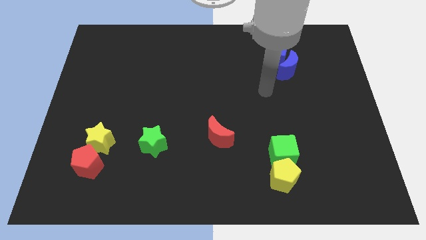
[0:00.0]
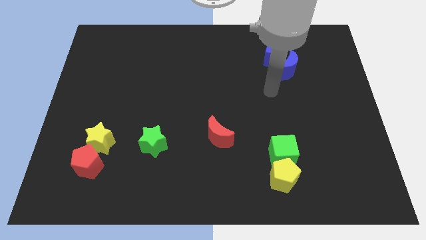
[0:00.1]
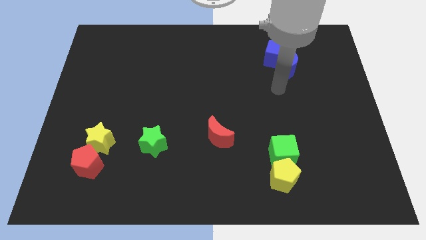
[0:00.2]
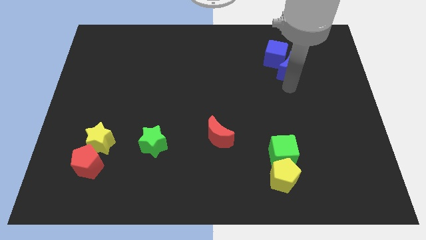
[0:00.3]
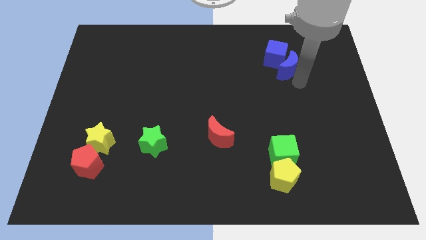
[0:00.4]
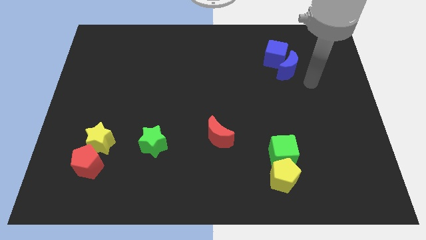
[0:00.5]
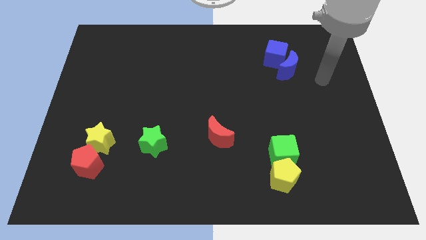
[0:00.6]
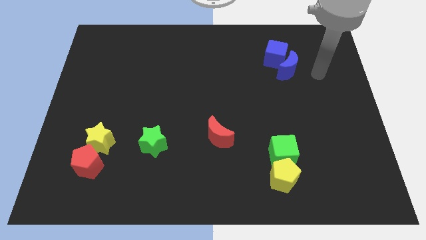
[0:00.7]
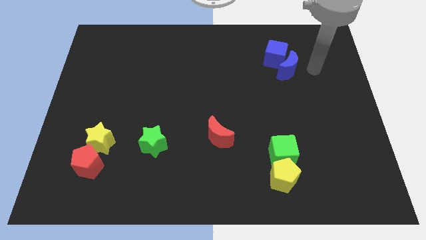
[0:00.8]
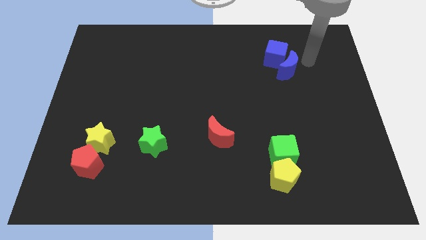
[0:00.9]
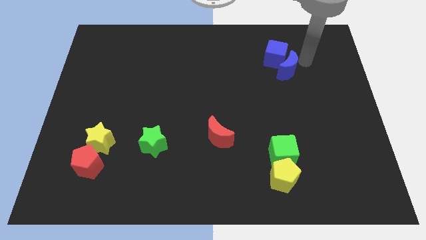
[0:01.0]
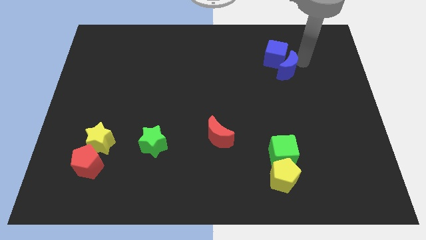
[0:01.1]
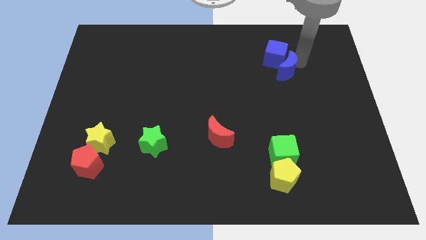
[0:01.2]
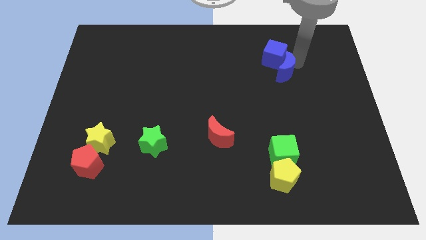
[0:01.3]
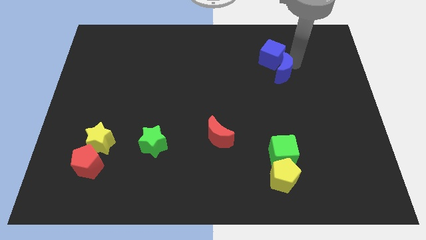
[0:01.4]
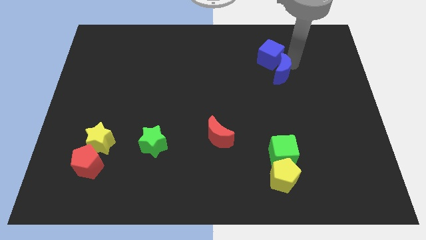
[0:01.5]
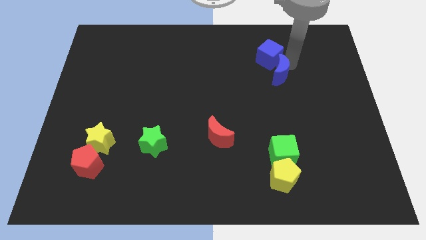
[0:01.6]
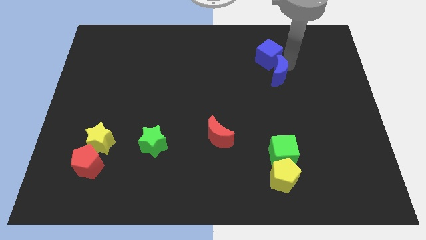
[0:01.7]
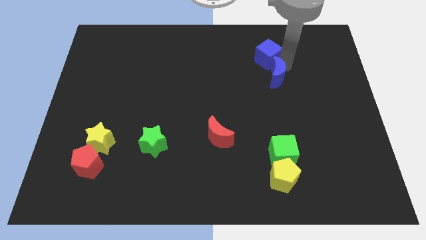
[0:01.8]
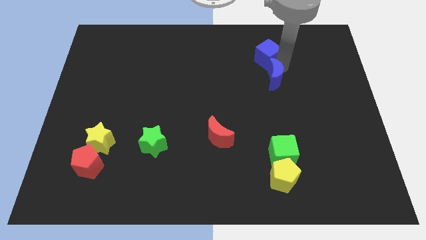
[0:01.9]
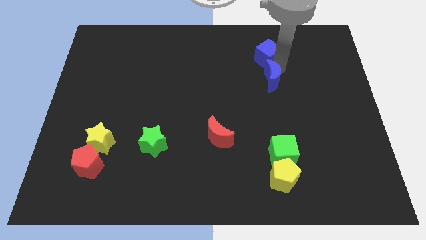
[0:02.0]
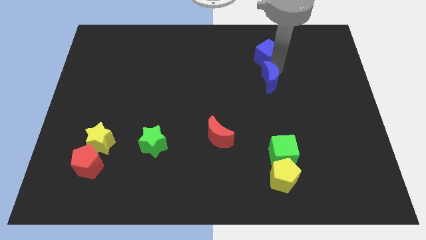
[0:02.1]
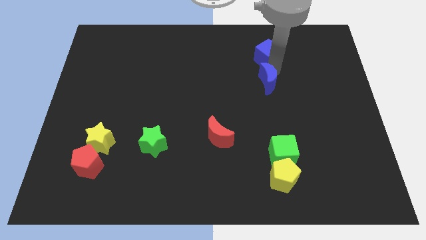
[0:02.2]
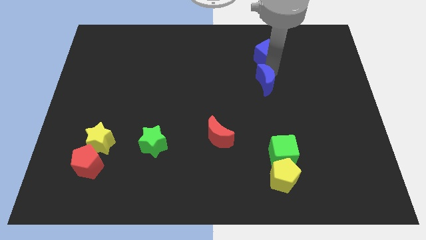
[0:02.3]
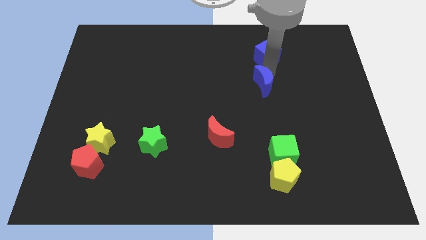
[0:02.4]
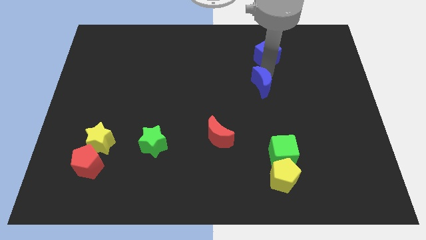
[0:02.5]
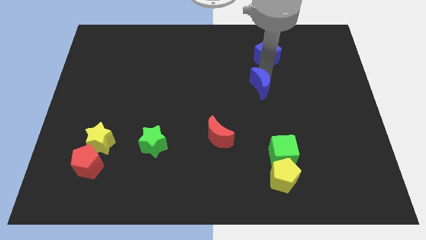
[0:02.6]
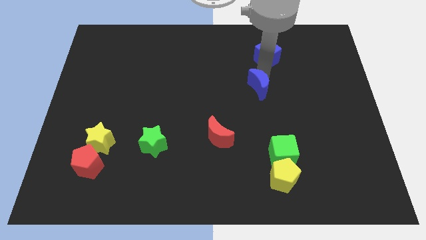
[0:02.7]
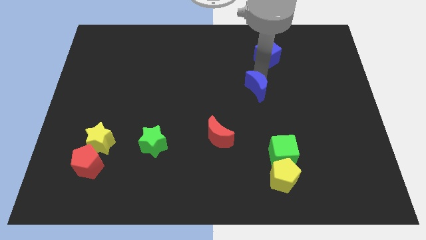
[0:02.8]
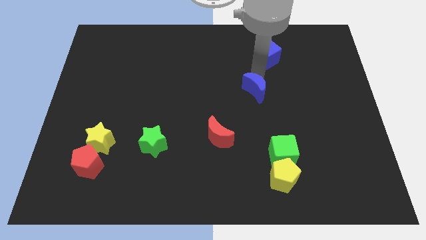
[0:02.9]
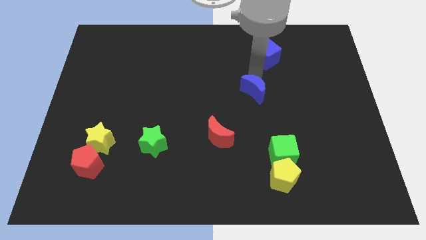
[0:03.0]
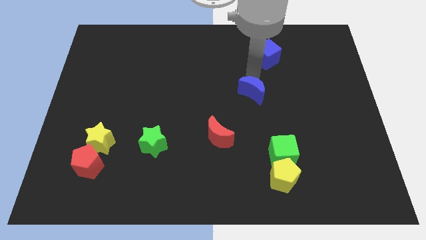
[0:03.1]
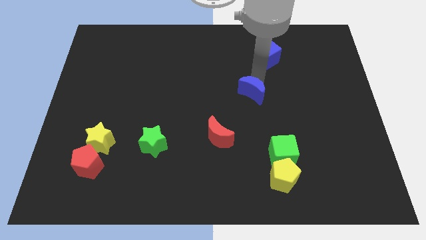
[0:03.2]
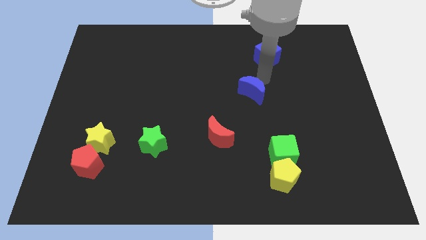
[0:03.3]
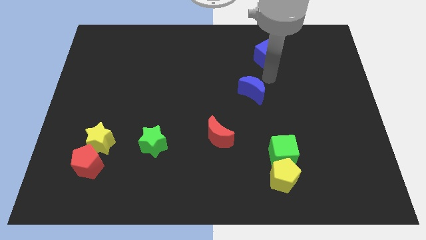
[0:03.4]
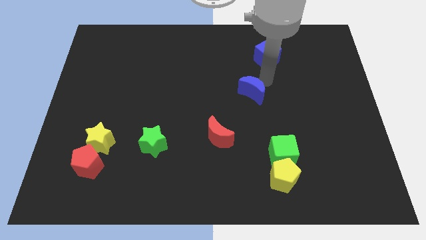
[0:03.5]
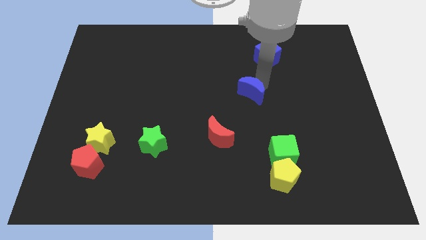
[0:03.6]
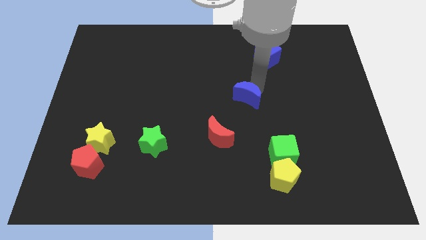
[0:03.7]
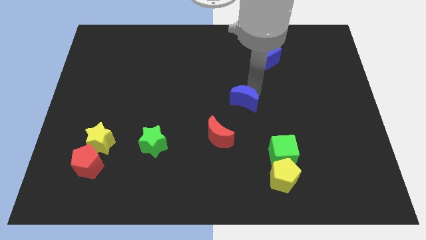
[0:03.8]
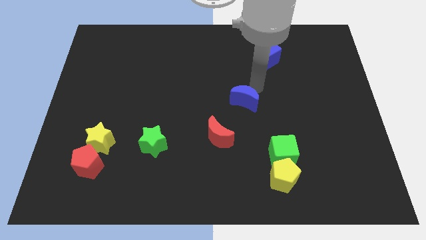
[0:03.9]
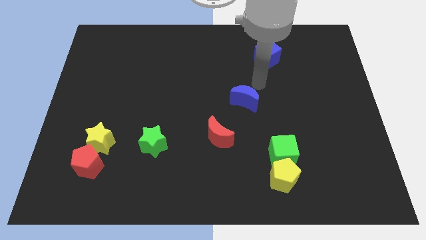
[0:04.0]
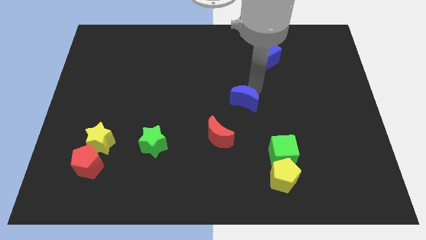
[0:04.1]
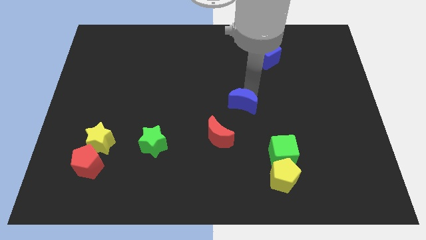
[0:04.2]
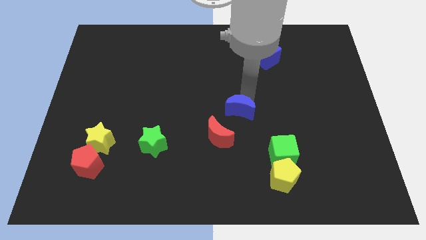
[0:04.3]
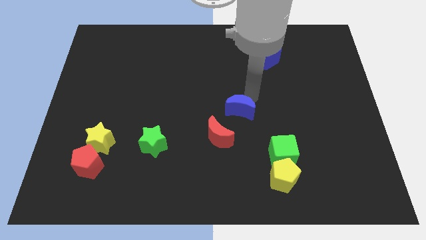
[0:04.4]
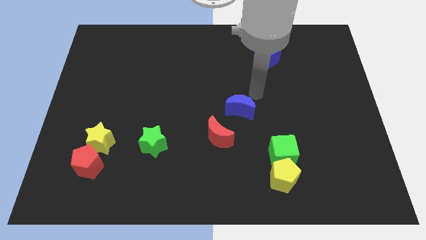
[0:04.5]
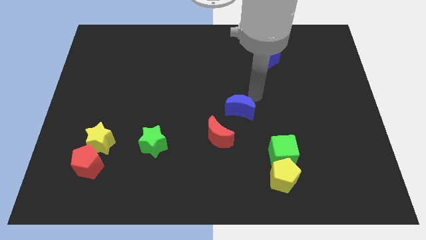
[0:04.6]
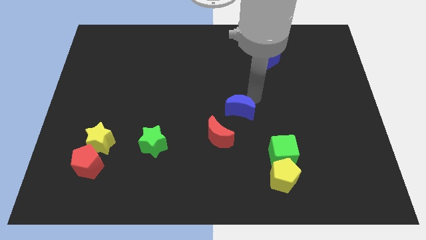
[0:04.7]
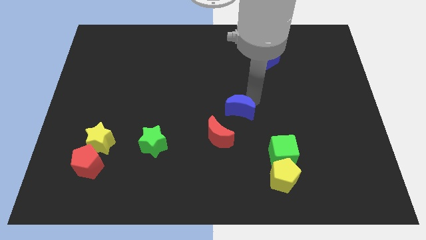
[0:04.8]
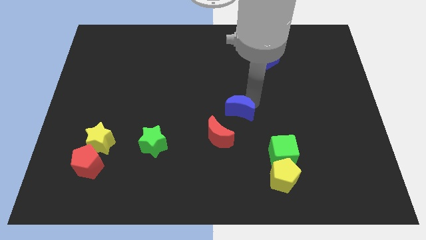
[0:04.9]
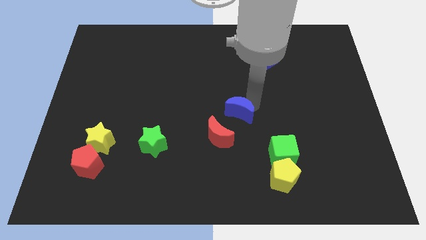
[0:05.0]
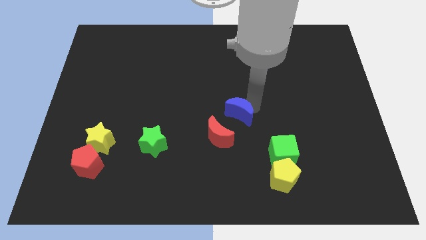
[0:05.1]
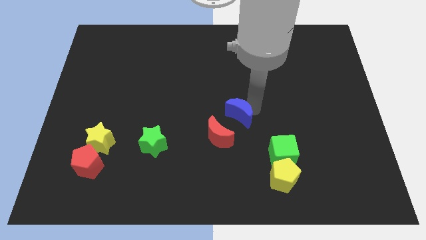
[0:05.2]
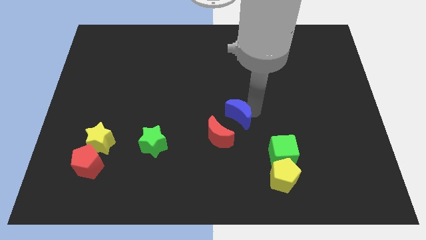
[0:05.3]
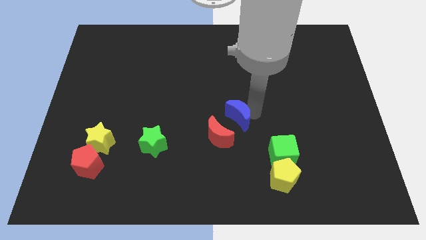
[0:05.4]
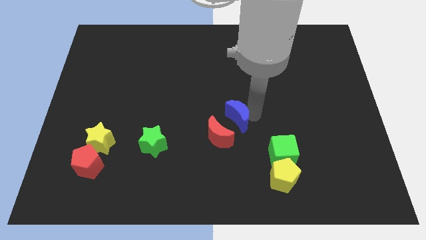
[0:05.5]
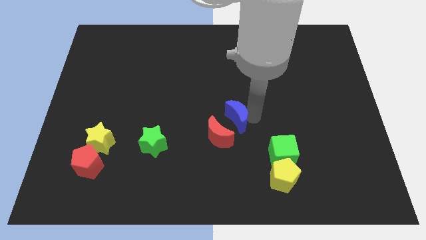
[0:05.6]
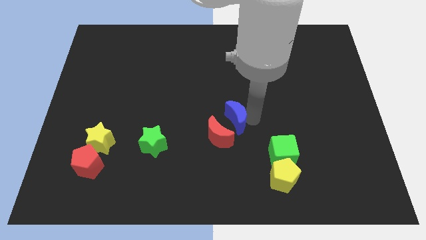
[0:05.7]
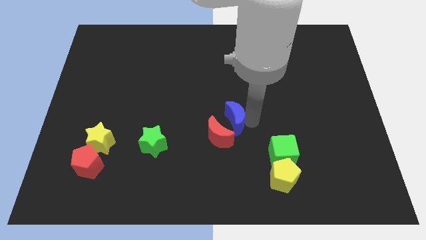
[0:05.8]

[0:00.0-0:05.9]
put the blue moon next to the red moon

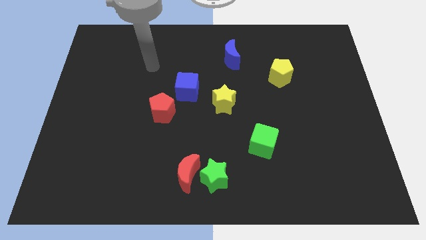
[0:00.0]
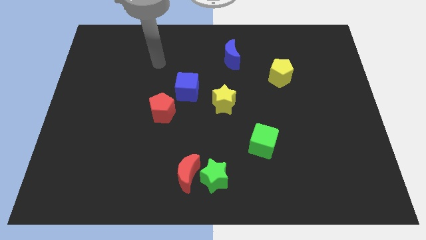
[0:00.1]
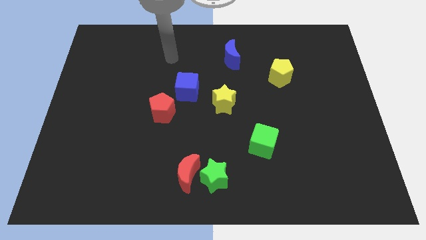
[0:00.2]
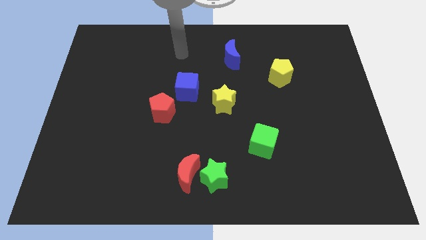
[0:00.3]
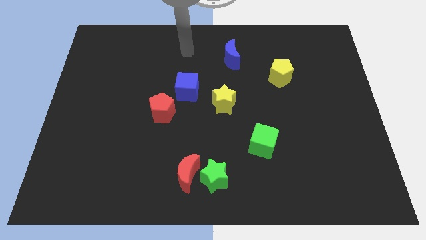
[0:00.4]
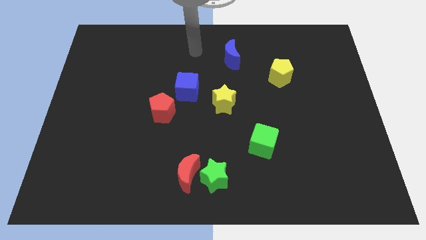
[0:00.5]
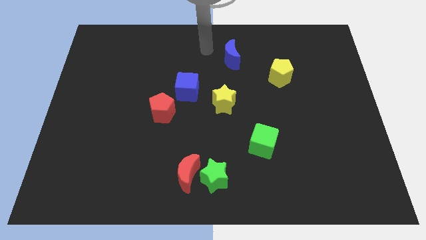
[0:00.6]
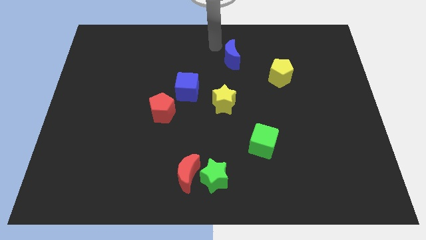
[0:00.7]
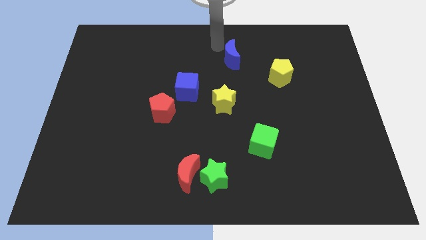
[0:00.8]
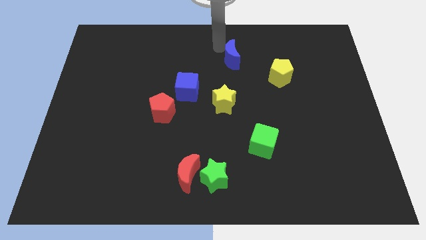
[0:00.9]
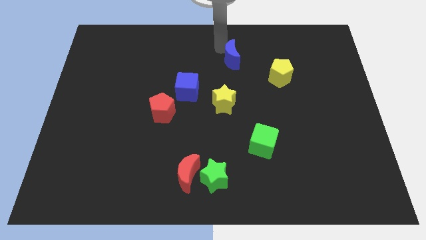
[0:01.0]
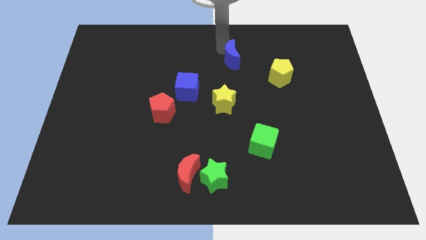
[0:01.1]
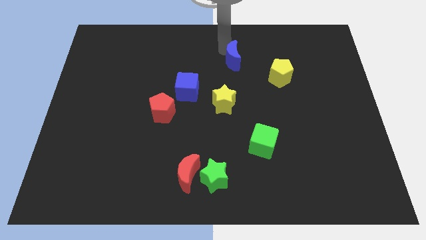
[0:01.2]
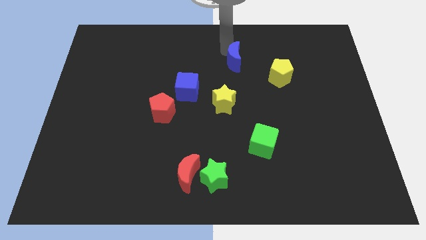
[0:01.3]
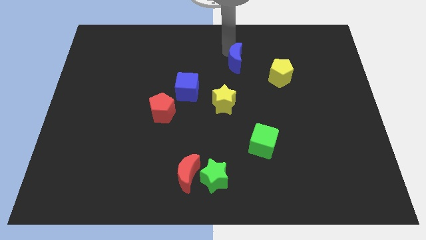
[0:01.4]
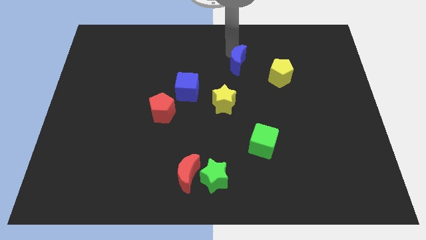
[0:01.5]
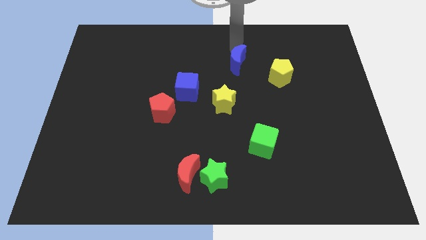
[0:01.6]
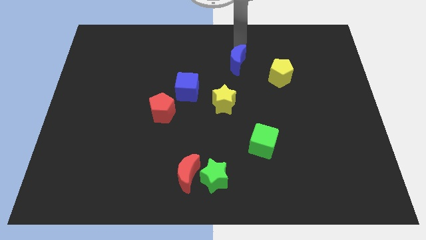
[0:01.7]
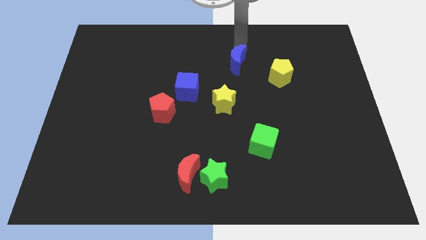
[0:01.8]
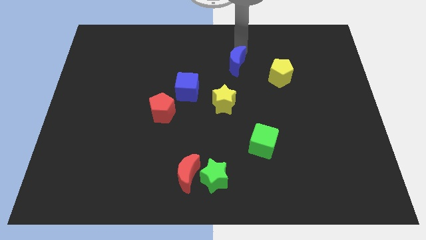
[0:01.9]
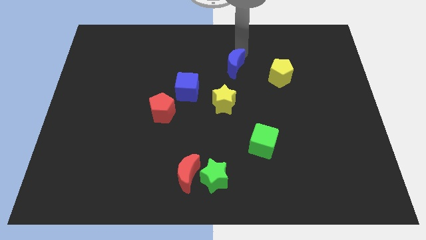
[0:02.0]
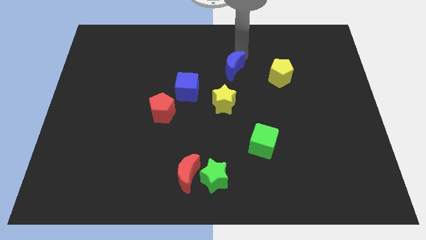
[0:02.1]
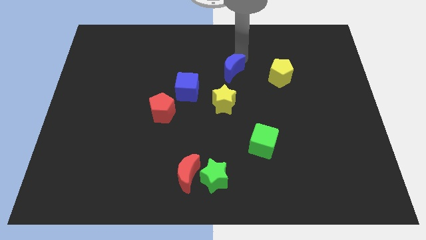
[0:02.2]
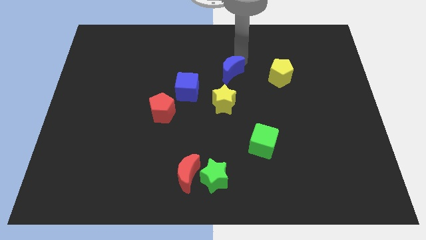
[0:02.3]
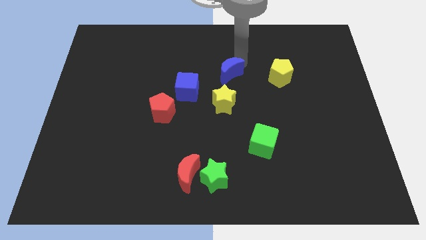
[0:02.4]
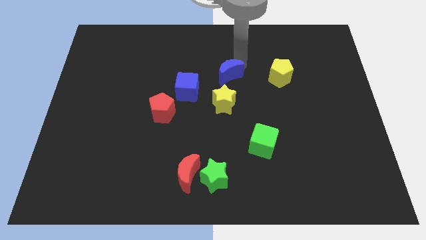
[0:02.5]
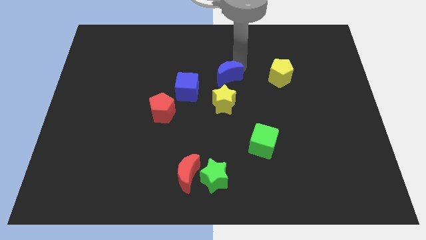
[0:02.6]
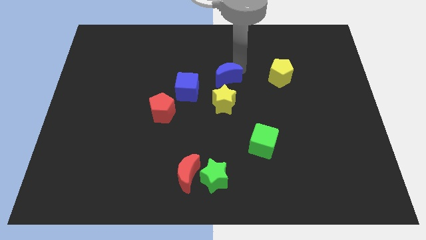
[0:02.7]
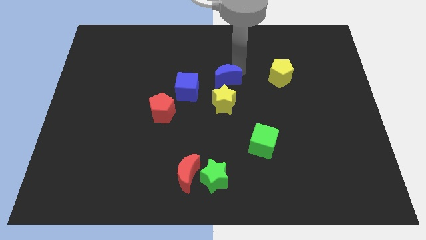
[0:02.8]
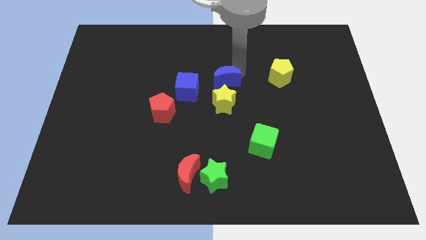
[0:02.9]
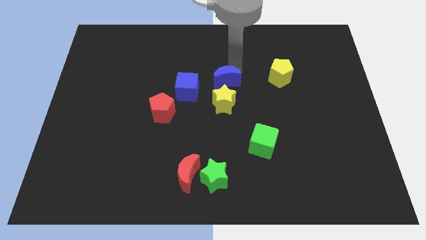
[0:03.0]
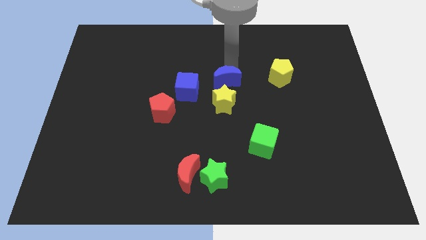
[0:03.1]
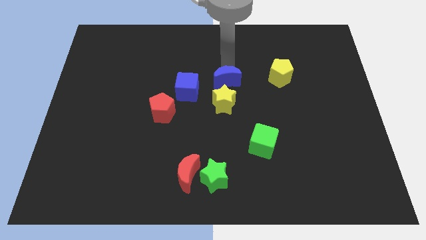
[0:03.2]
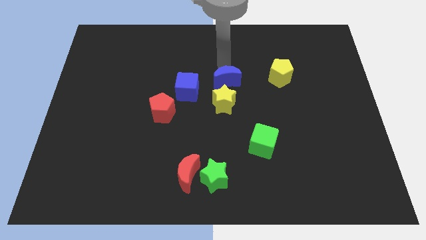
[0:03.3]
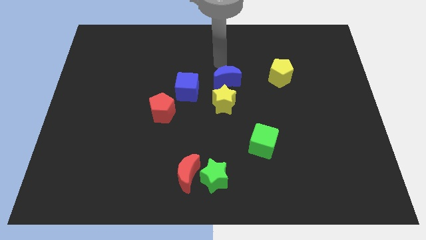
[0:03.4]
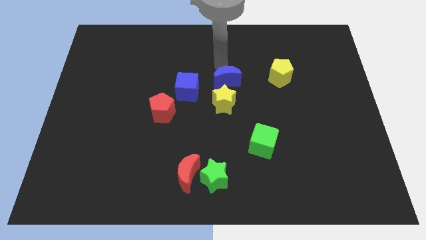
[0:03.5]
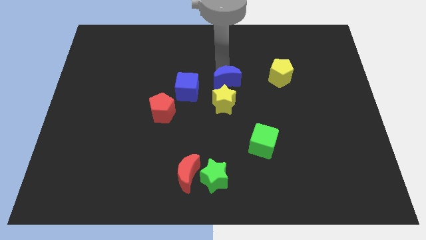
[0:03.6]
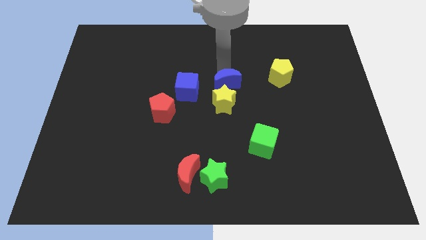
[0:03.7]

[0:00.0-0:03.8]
move the blue moon close to the yellow star
